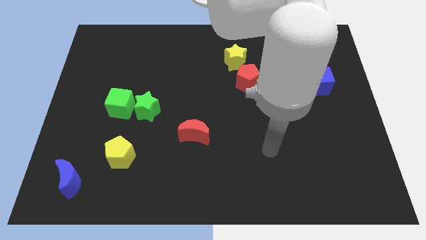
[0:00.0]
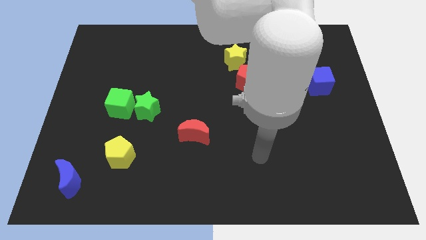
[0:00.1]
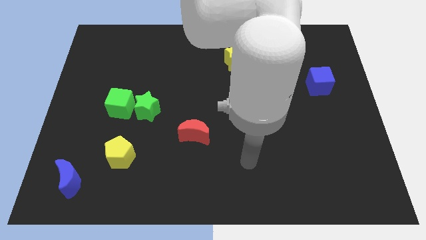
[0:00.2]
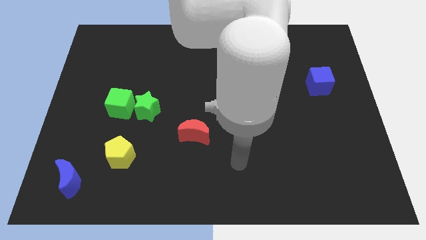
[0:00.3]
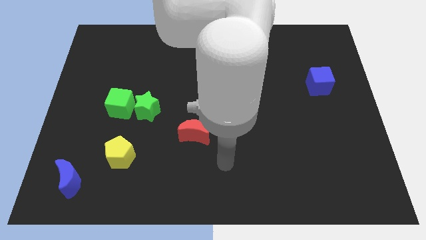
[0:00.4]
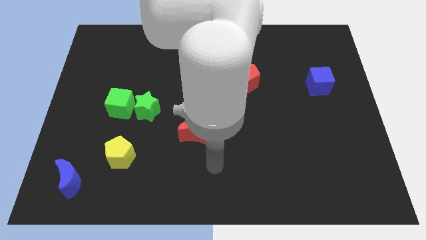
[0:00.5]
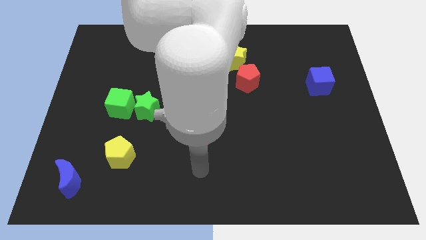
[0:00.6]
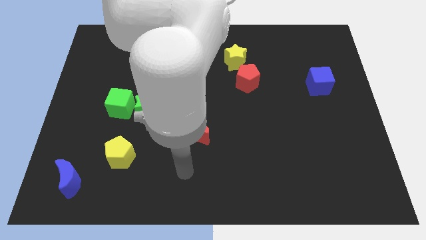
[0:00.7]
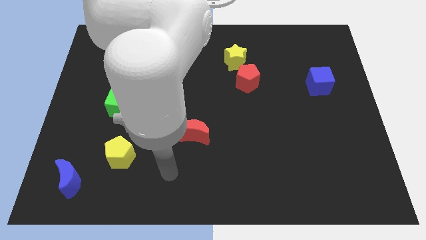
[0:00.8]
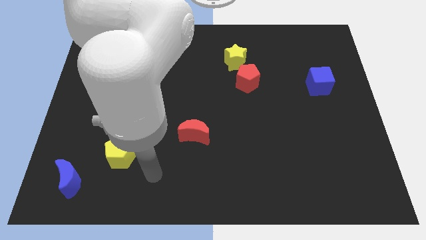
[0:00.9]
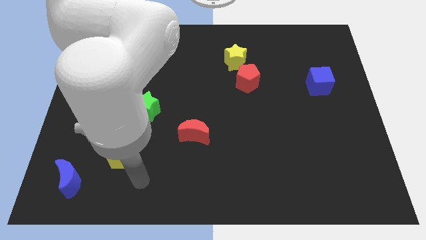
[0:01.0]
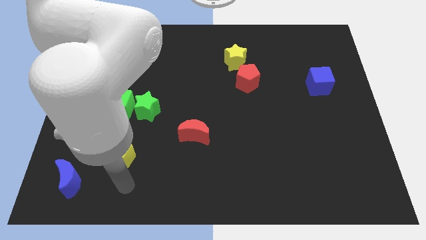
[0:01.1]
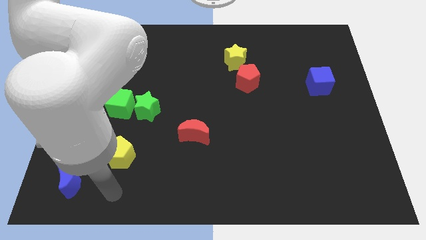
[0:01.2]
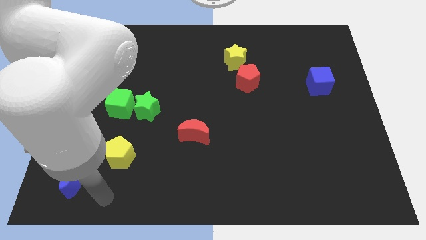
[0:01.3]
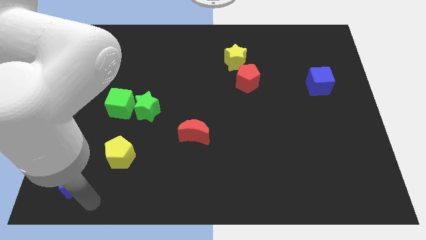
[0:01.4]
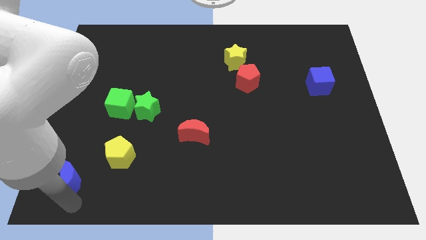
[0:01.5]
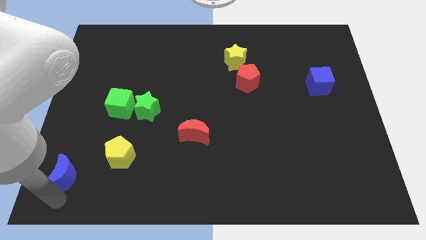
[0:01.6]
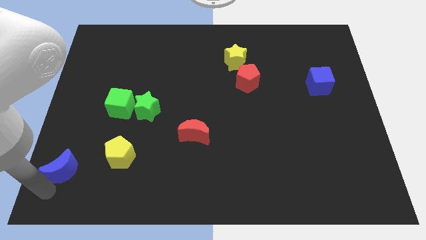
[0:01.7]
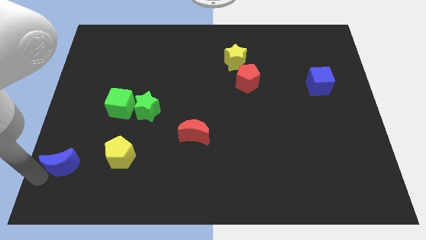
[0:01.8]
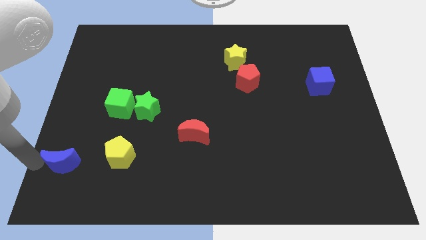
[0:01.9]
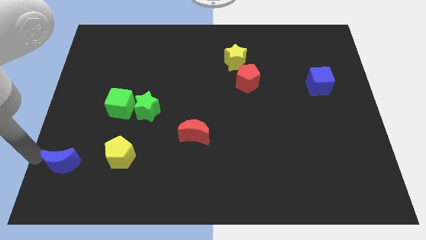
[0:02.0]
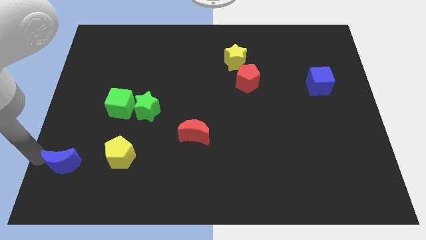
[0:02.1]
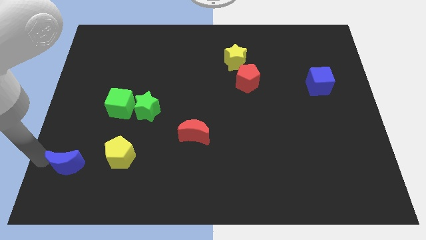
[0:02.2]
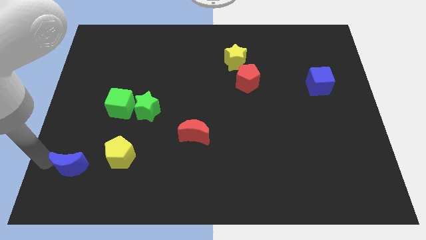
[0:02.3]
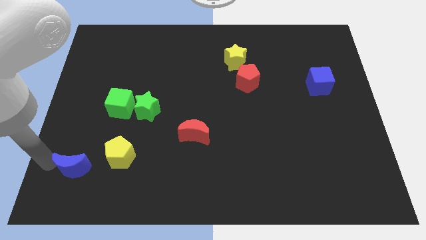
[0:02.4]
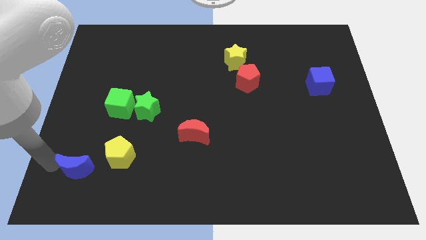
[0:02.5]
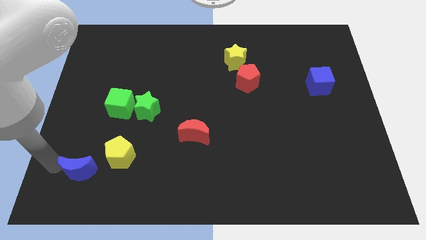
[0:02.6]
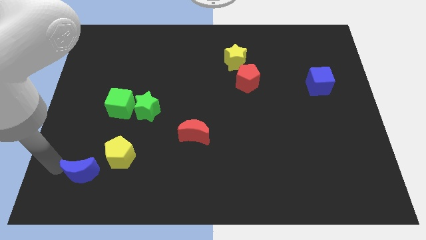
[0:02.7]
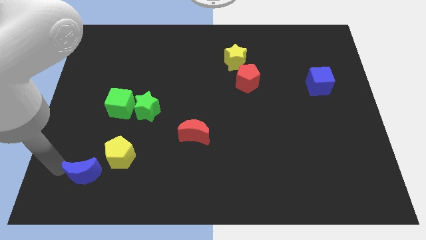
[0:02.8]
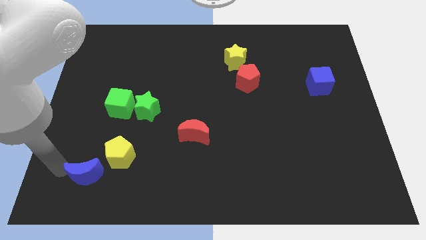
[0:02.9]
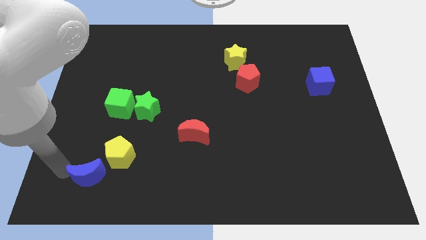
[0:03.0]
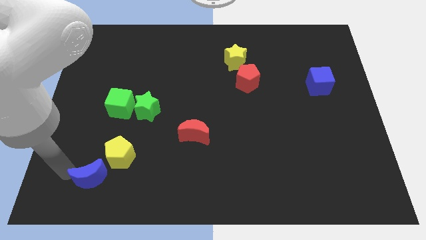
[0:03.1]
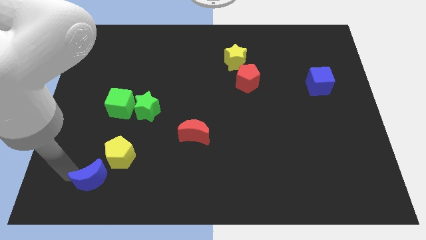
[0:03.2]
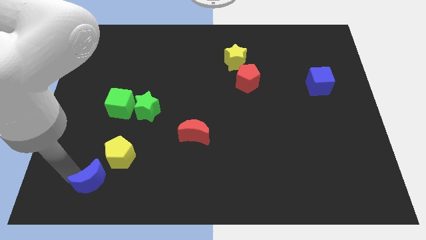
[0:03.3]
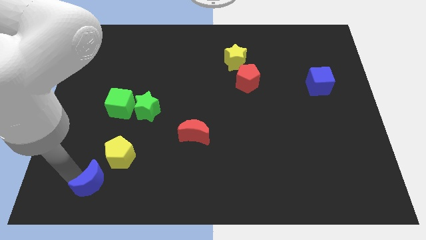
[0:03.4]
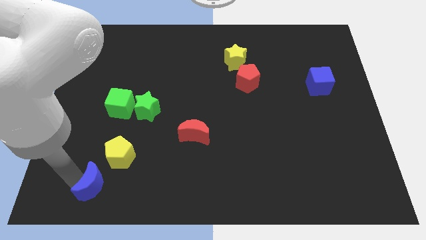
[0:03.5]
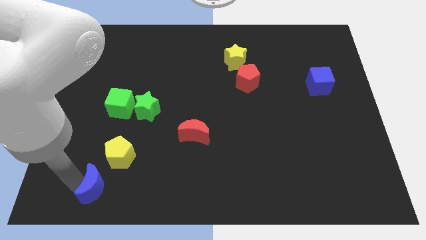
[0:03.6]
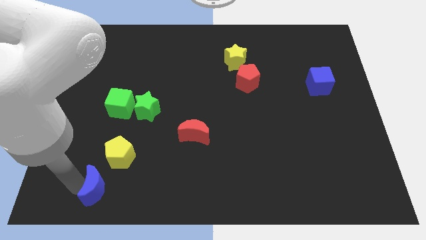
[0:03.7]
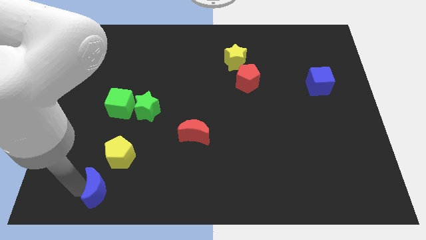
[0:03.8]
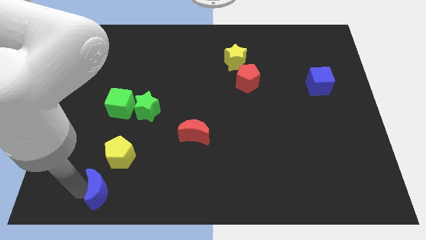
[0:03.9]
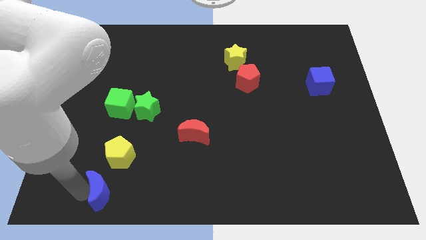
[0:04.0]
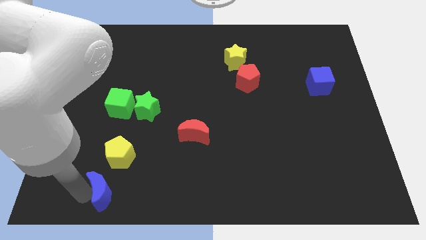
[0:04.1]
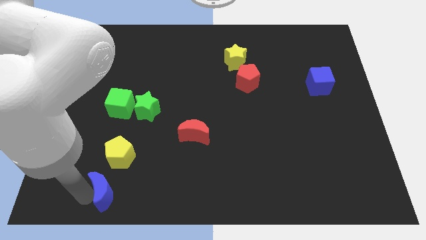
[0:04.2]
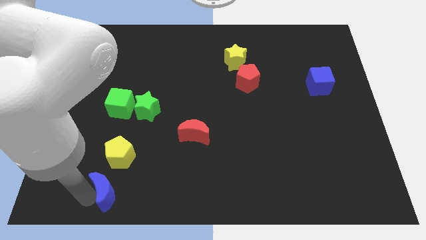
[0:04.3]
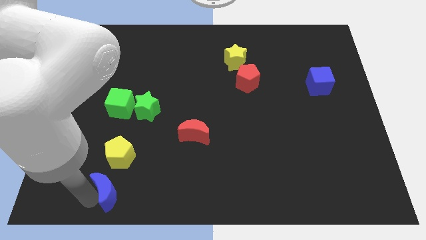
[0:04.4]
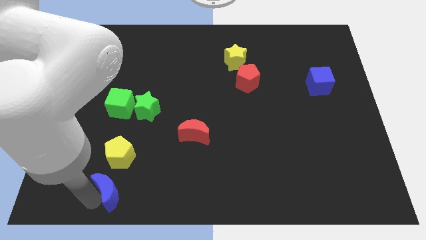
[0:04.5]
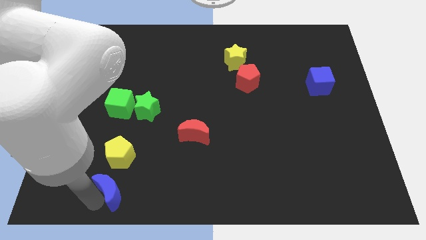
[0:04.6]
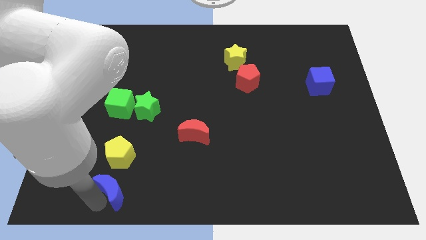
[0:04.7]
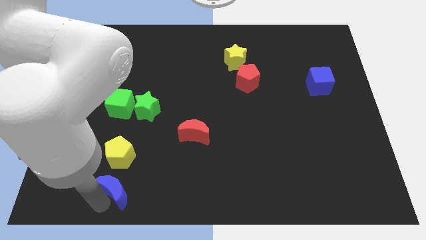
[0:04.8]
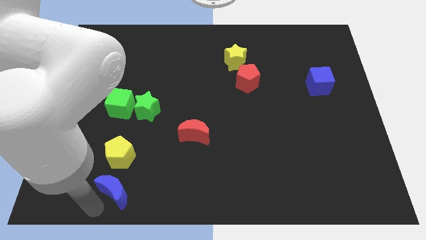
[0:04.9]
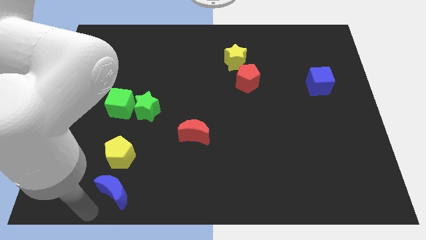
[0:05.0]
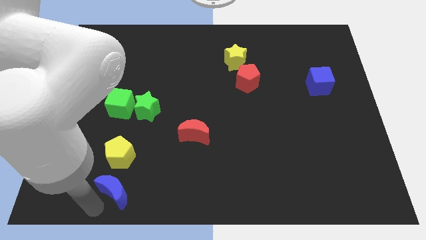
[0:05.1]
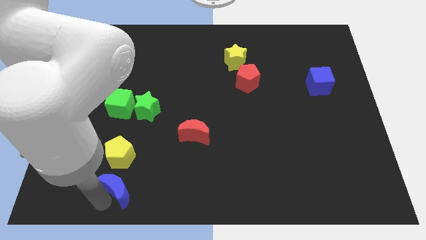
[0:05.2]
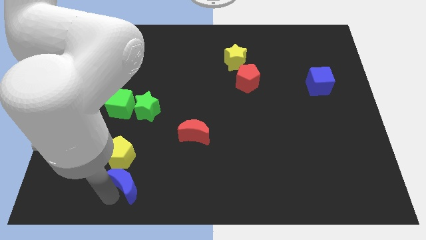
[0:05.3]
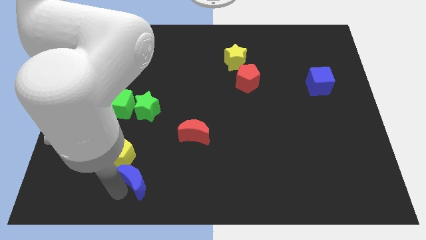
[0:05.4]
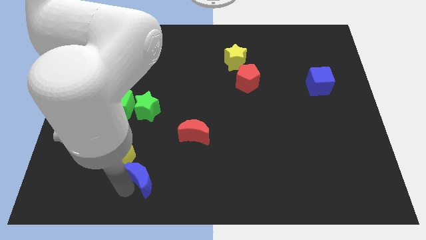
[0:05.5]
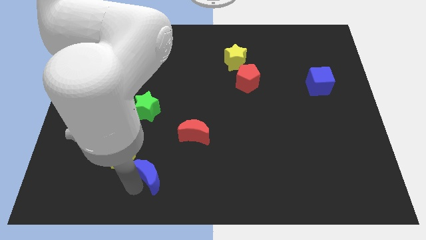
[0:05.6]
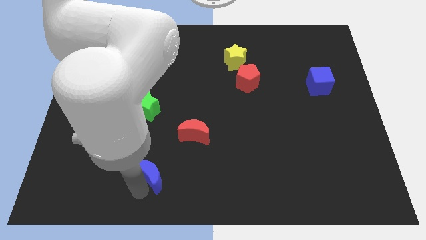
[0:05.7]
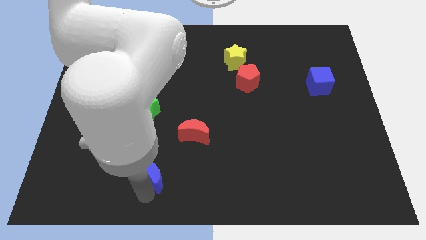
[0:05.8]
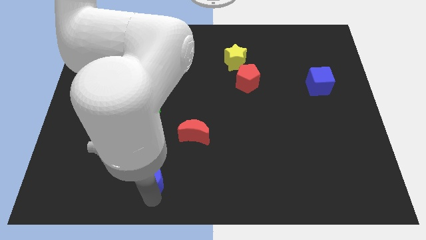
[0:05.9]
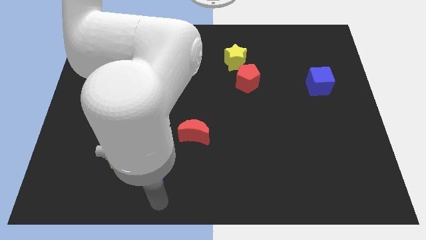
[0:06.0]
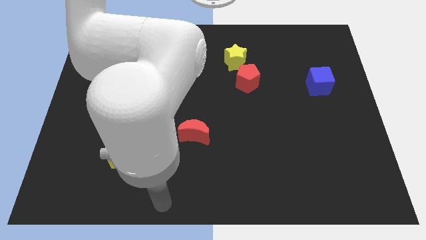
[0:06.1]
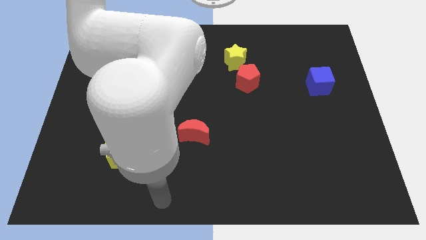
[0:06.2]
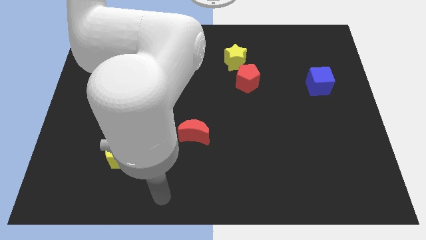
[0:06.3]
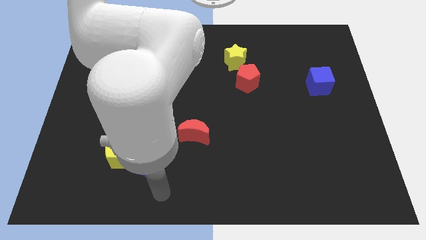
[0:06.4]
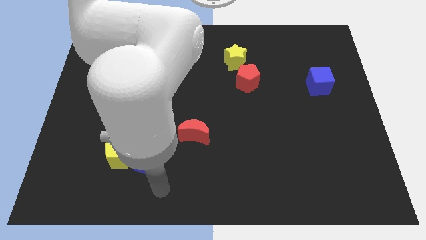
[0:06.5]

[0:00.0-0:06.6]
move the blue moon to the bottom side of the green star
